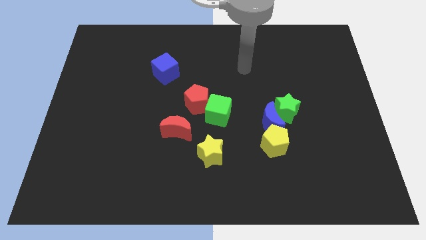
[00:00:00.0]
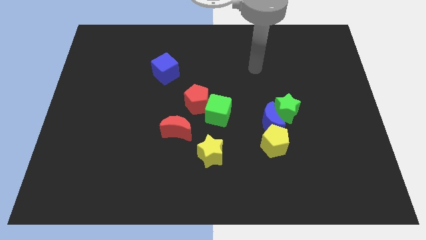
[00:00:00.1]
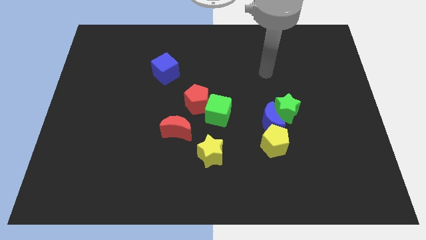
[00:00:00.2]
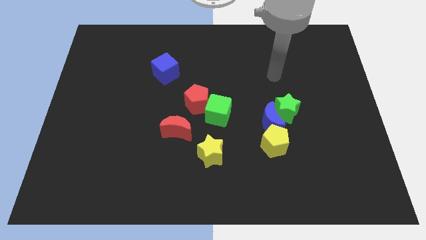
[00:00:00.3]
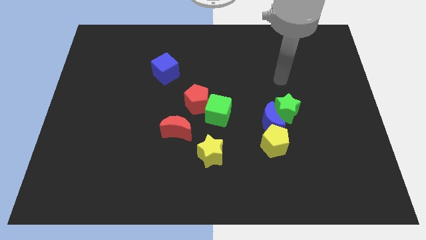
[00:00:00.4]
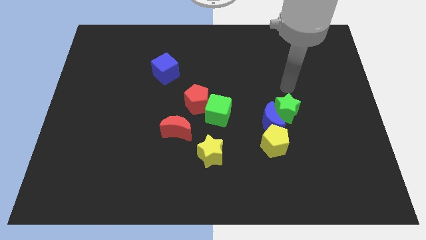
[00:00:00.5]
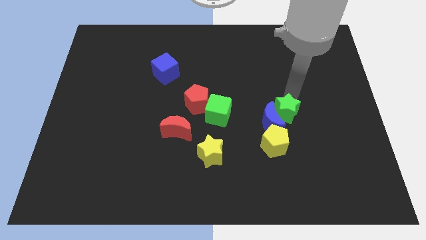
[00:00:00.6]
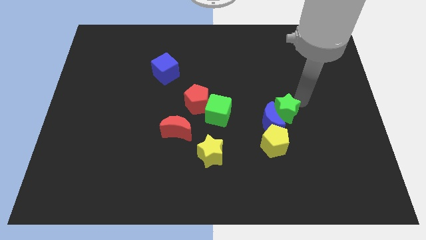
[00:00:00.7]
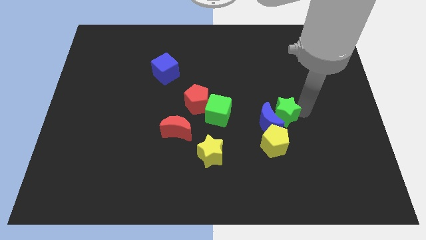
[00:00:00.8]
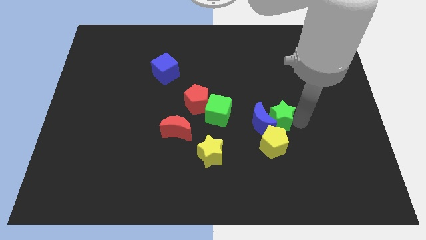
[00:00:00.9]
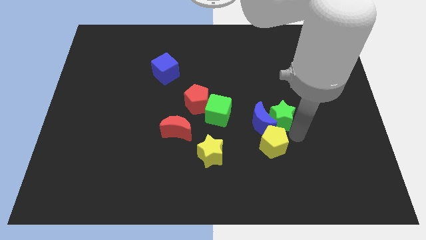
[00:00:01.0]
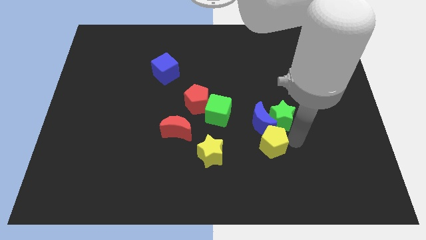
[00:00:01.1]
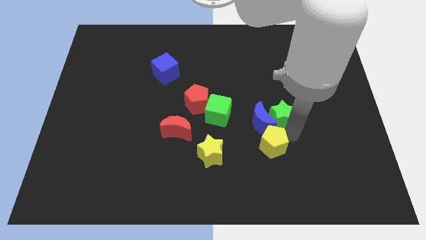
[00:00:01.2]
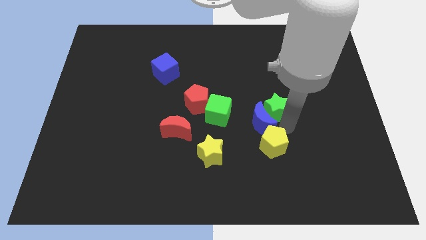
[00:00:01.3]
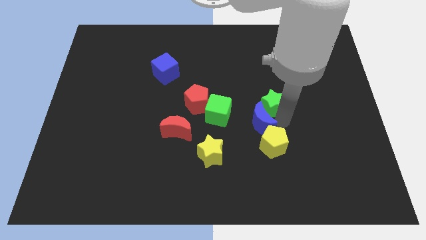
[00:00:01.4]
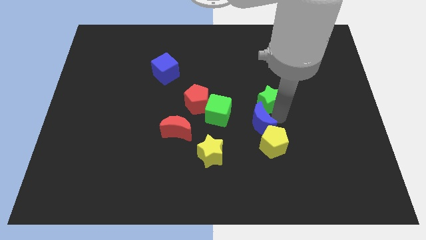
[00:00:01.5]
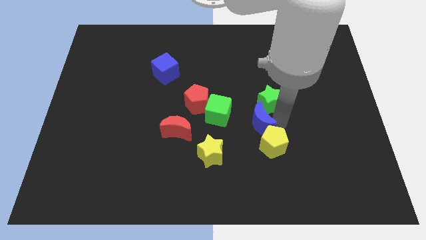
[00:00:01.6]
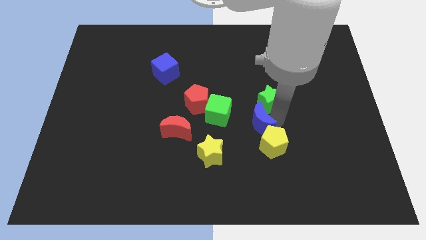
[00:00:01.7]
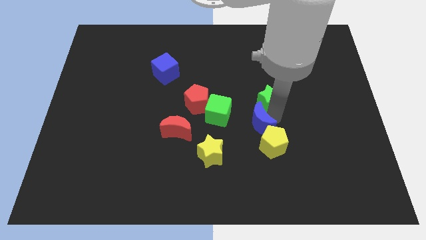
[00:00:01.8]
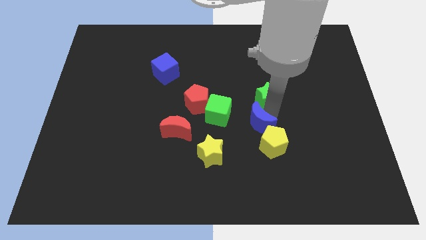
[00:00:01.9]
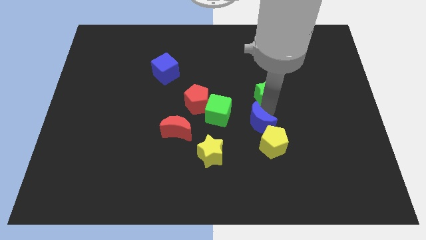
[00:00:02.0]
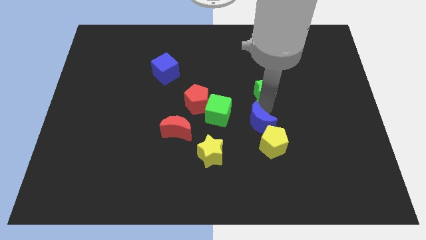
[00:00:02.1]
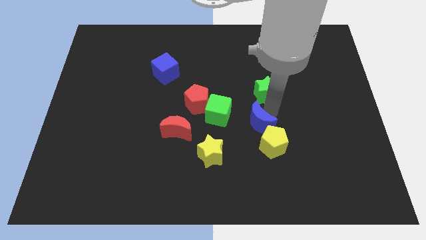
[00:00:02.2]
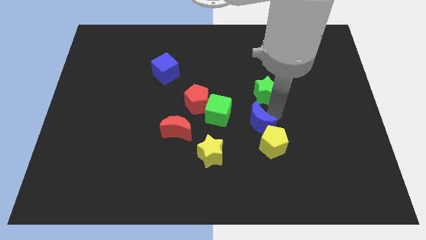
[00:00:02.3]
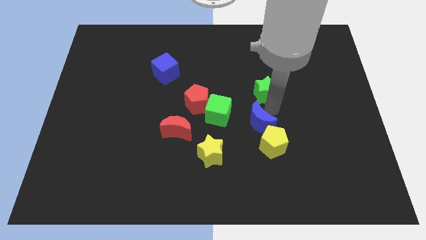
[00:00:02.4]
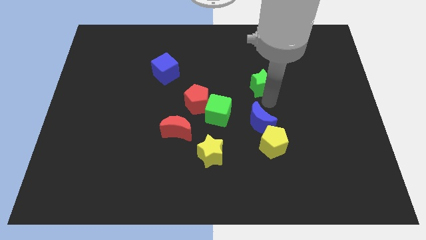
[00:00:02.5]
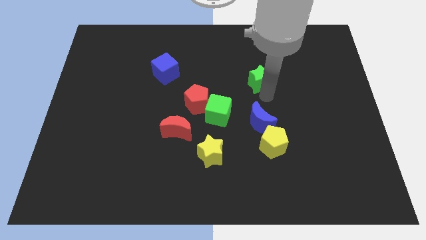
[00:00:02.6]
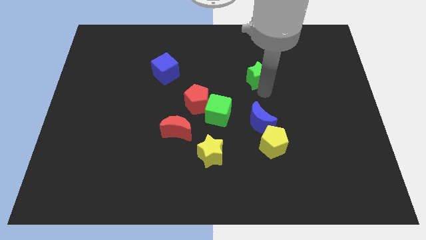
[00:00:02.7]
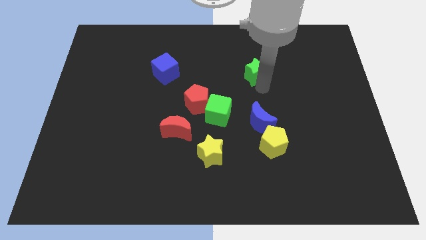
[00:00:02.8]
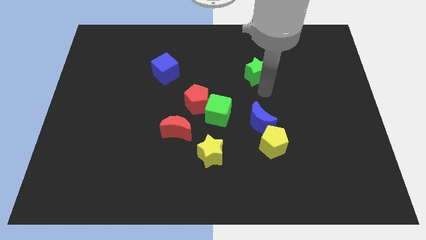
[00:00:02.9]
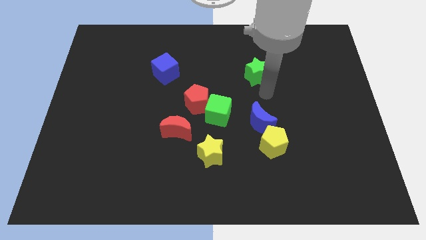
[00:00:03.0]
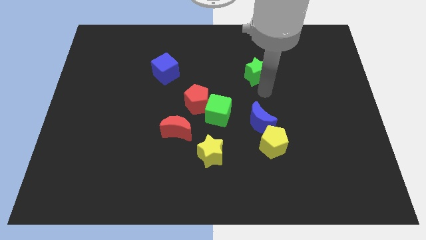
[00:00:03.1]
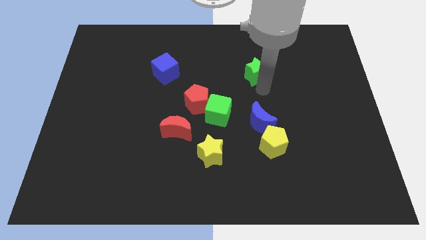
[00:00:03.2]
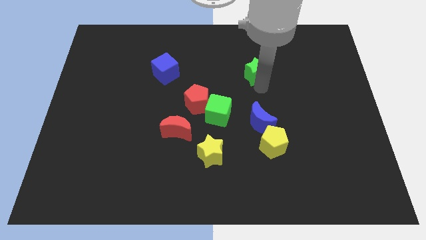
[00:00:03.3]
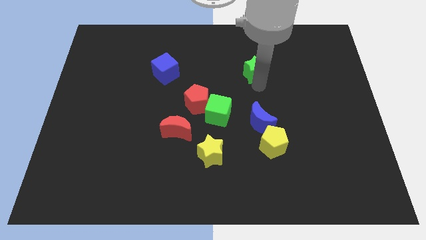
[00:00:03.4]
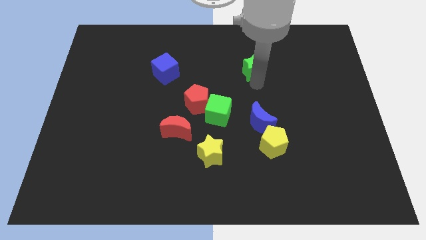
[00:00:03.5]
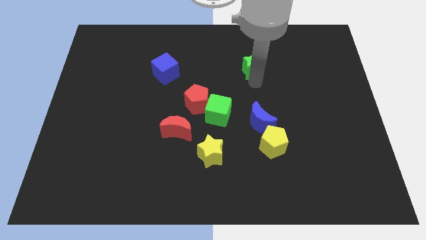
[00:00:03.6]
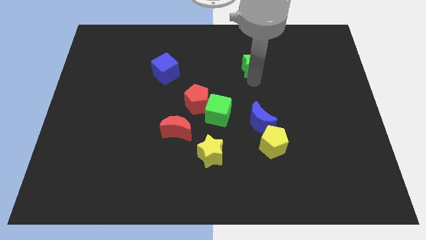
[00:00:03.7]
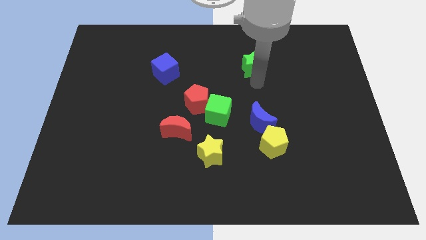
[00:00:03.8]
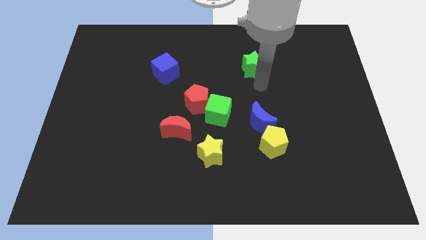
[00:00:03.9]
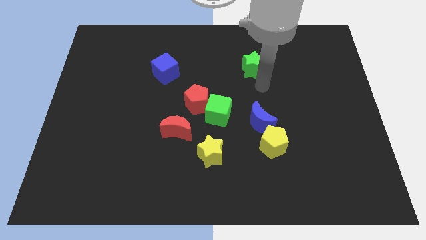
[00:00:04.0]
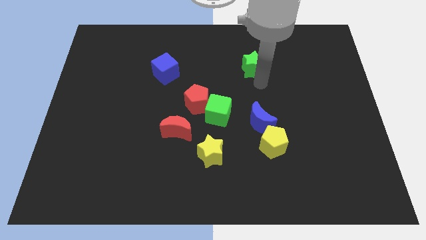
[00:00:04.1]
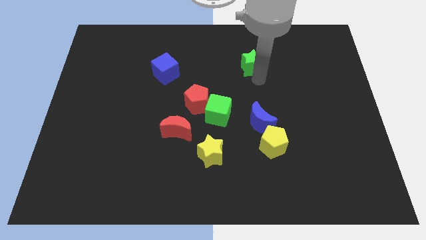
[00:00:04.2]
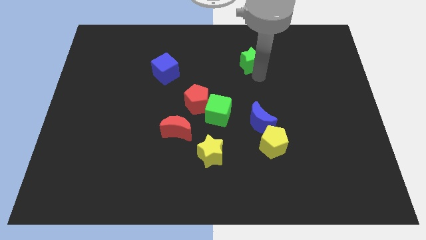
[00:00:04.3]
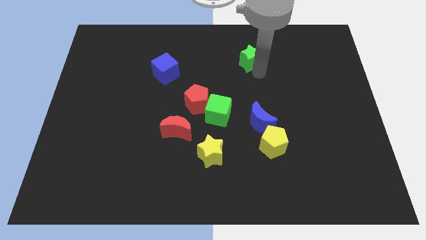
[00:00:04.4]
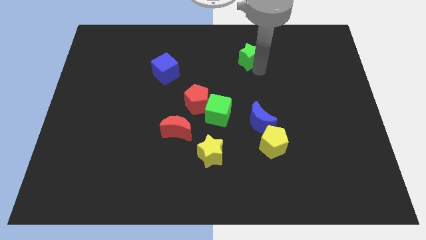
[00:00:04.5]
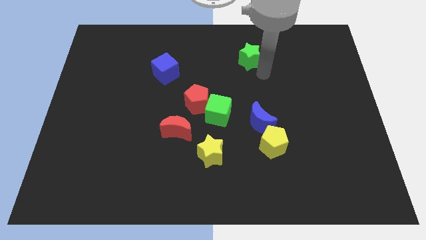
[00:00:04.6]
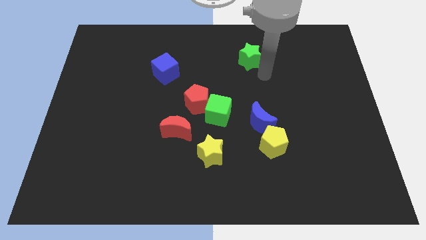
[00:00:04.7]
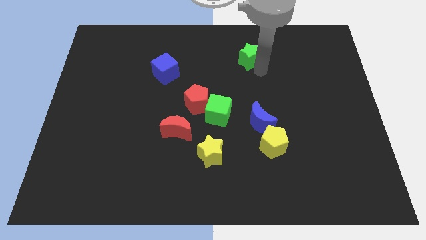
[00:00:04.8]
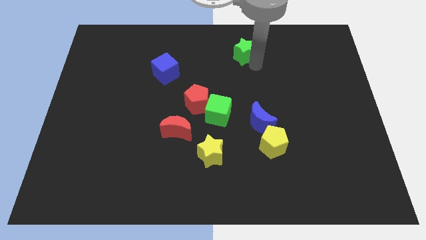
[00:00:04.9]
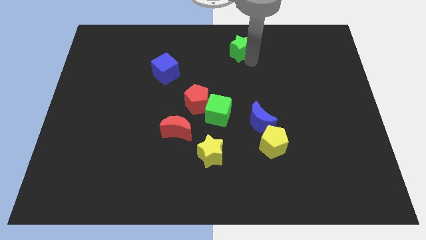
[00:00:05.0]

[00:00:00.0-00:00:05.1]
push the green star to the towards your base

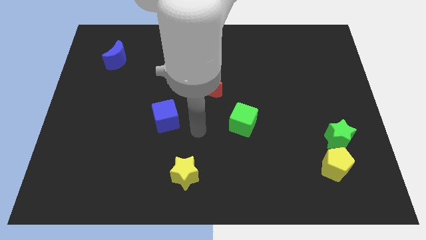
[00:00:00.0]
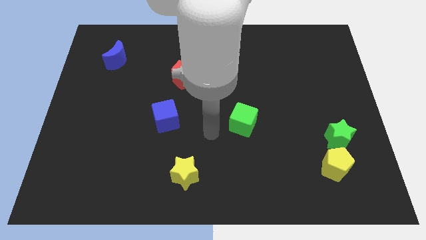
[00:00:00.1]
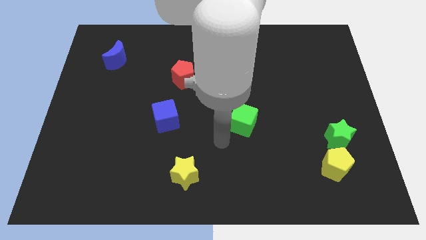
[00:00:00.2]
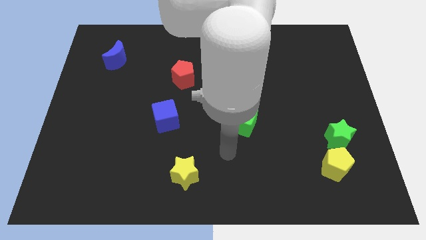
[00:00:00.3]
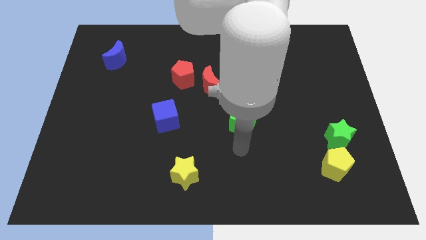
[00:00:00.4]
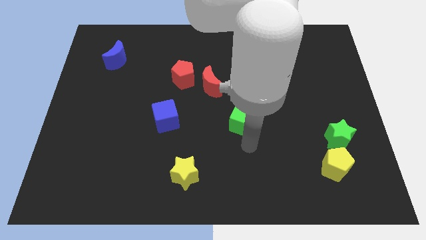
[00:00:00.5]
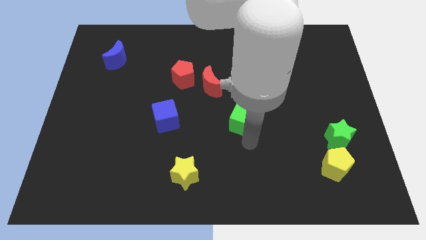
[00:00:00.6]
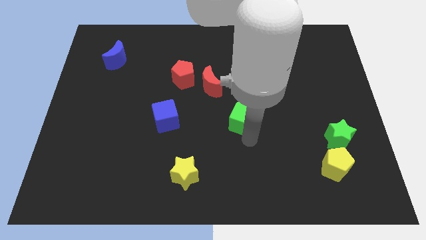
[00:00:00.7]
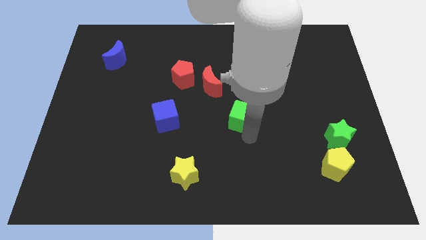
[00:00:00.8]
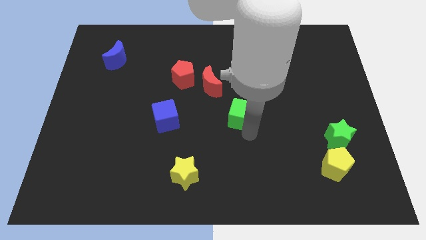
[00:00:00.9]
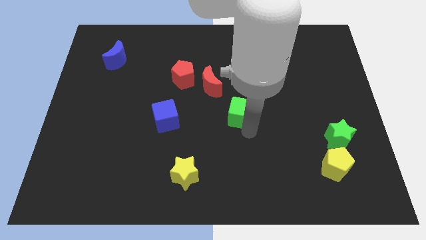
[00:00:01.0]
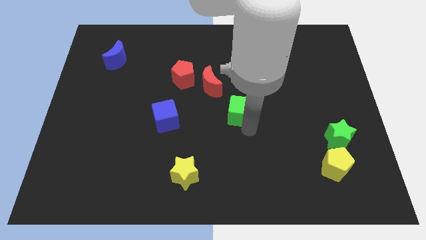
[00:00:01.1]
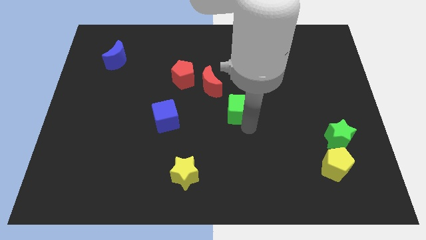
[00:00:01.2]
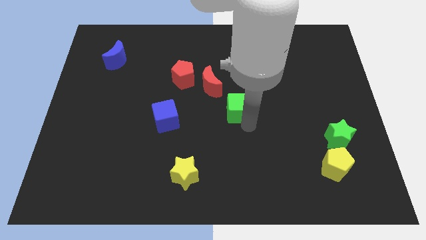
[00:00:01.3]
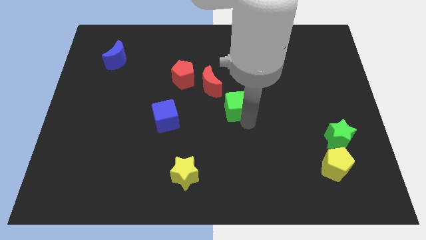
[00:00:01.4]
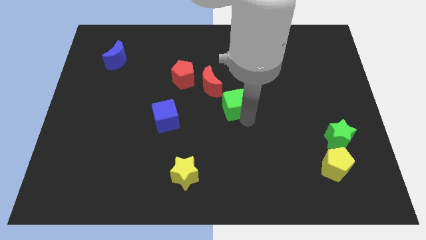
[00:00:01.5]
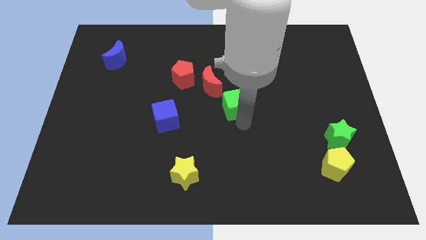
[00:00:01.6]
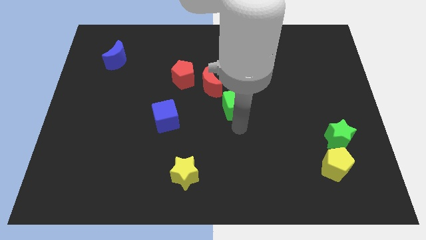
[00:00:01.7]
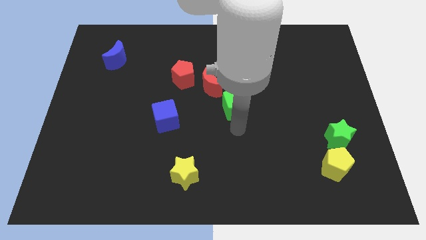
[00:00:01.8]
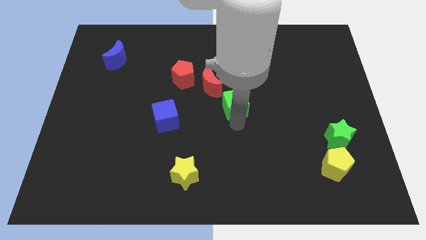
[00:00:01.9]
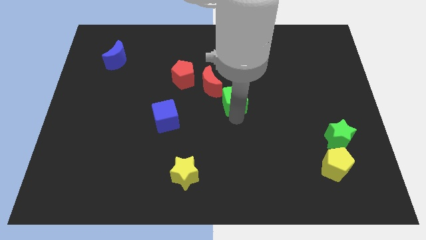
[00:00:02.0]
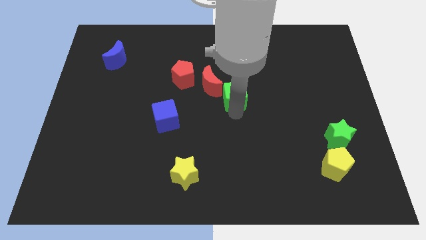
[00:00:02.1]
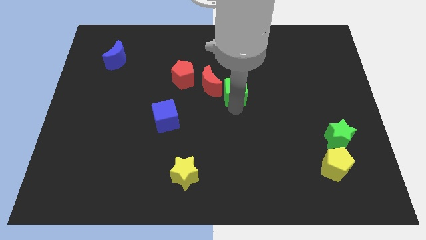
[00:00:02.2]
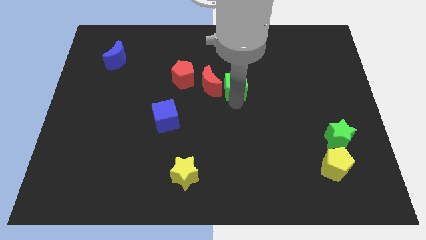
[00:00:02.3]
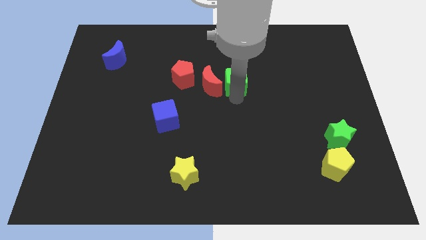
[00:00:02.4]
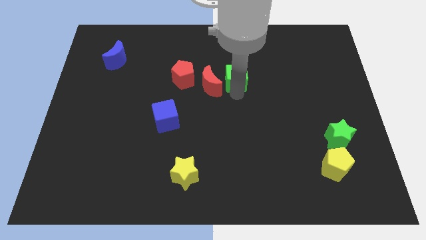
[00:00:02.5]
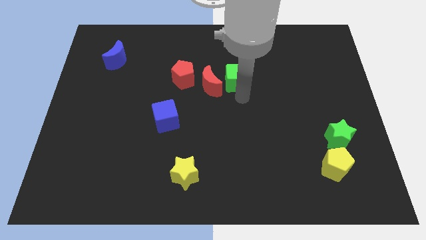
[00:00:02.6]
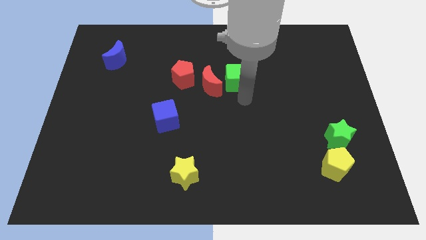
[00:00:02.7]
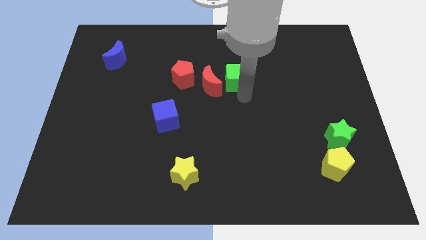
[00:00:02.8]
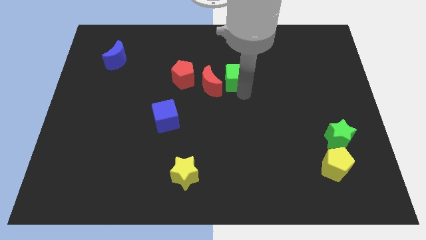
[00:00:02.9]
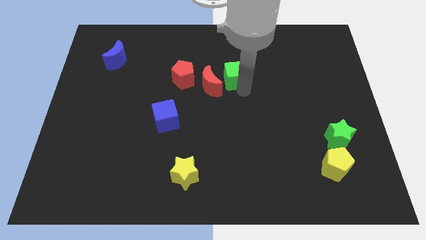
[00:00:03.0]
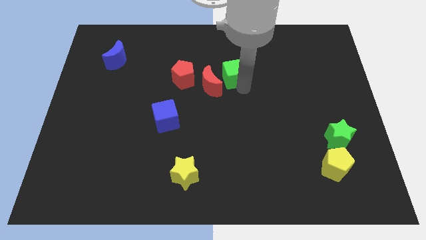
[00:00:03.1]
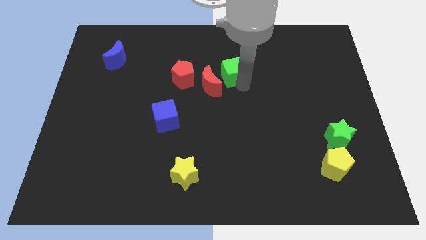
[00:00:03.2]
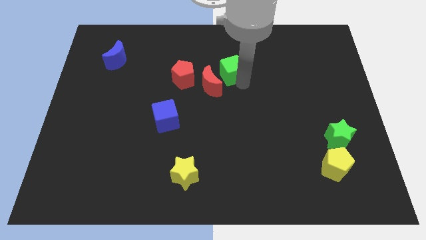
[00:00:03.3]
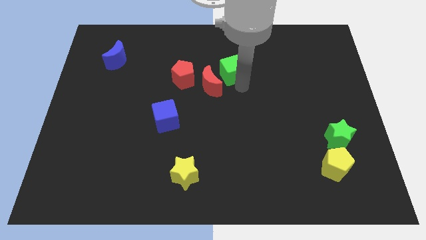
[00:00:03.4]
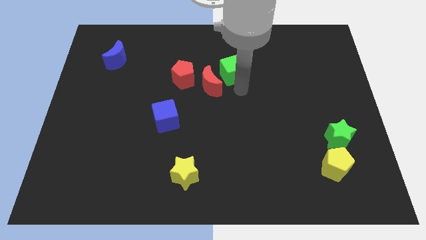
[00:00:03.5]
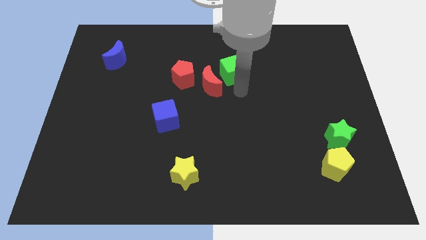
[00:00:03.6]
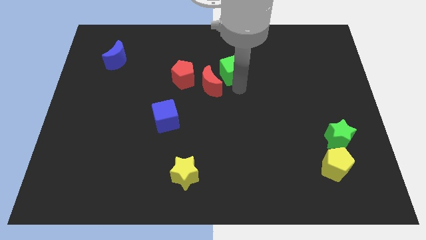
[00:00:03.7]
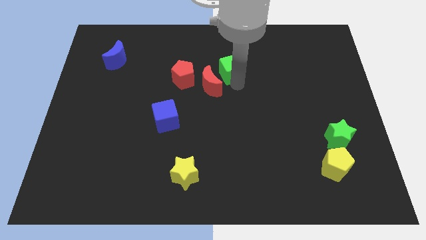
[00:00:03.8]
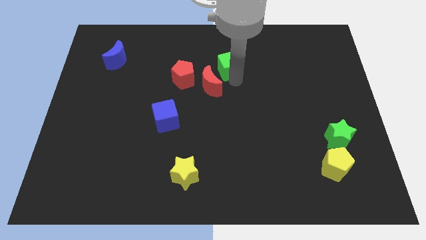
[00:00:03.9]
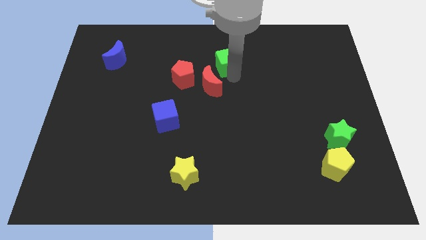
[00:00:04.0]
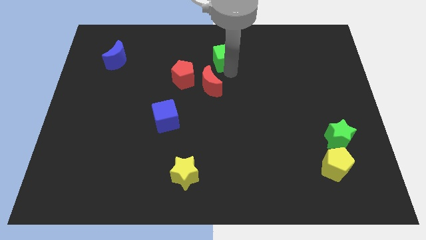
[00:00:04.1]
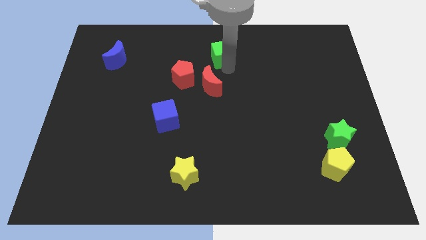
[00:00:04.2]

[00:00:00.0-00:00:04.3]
put the green cube to the top side
